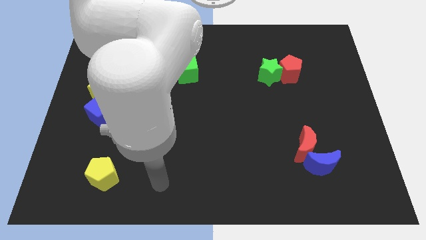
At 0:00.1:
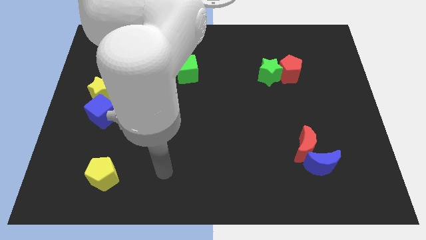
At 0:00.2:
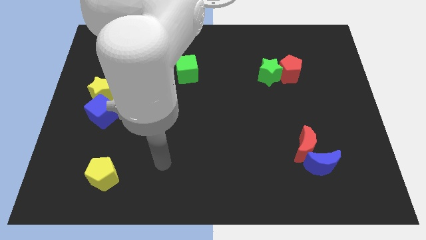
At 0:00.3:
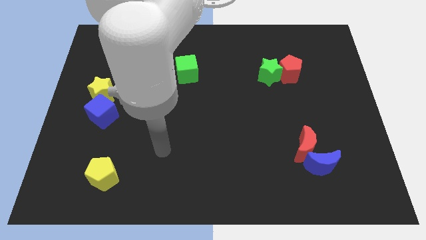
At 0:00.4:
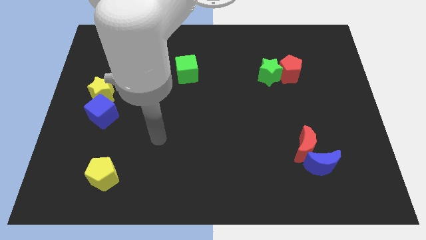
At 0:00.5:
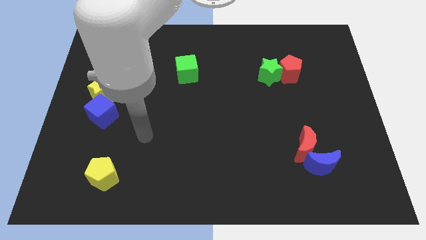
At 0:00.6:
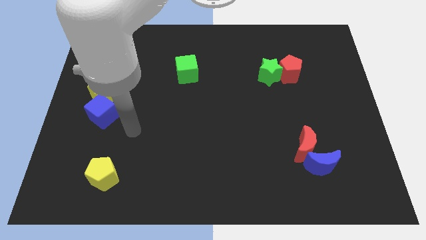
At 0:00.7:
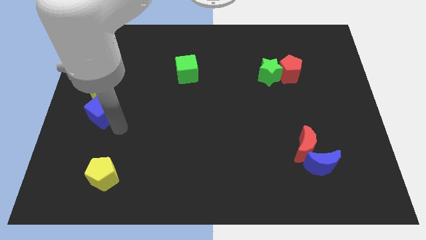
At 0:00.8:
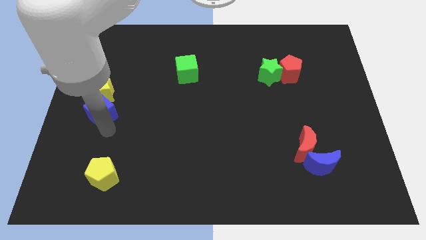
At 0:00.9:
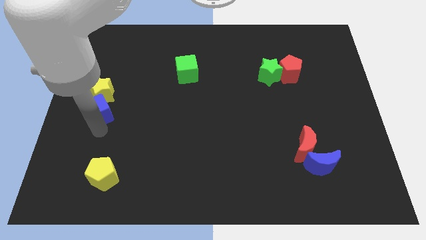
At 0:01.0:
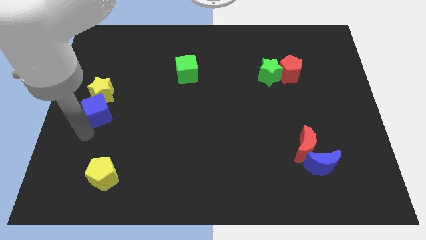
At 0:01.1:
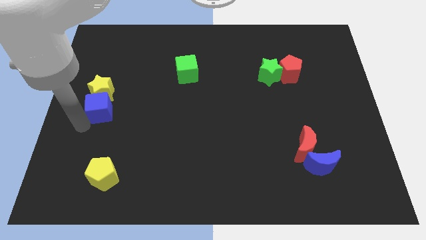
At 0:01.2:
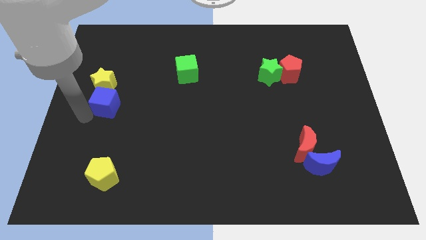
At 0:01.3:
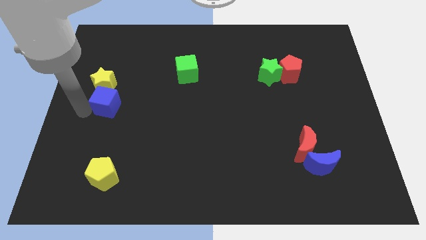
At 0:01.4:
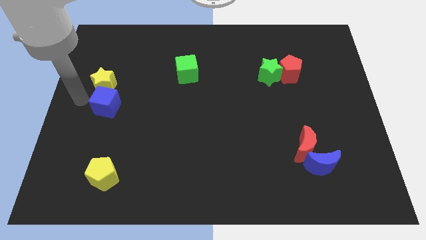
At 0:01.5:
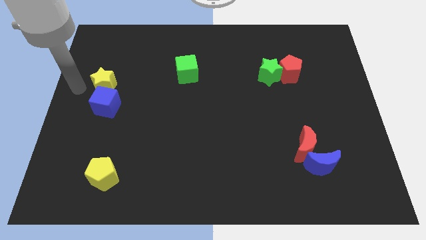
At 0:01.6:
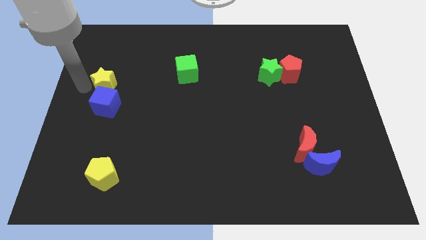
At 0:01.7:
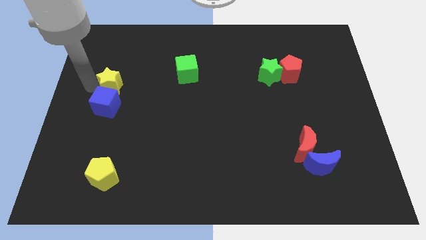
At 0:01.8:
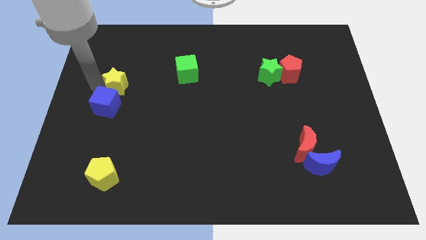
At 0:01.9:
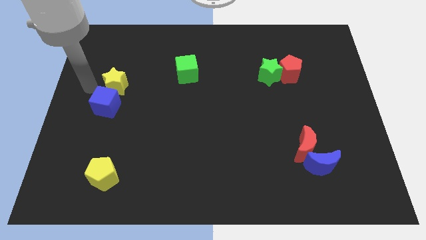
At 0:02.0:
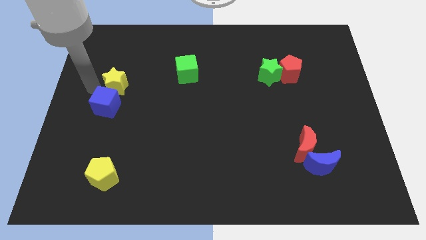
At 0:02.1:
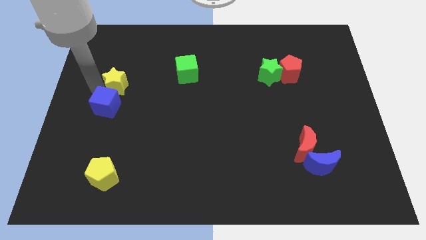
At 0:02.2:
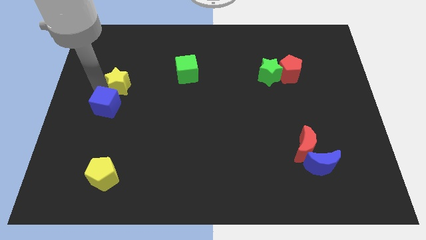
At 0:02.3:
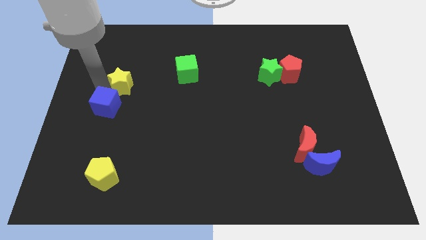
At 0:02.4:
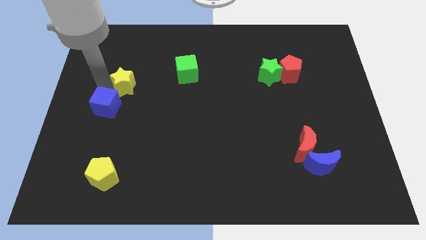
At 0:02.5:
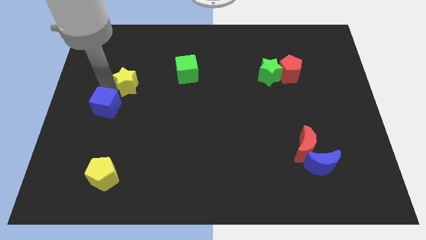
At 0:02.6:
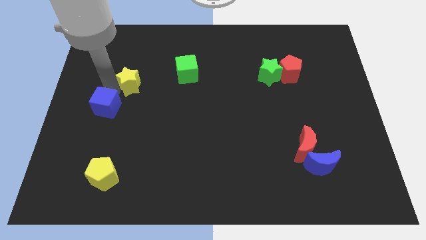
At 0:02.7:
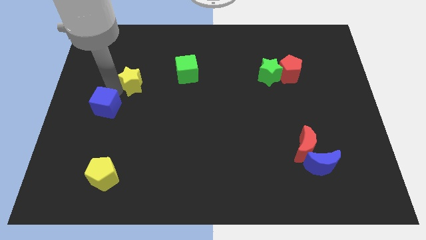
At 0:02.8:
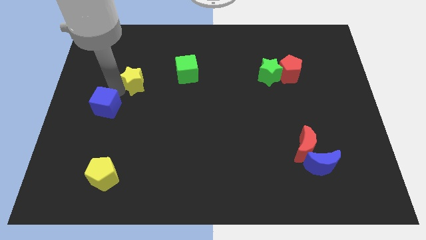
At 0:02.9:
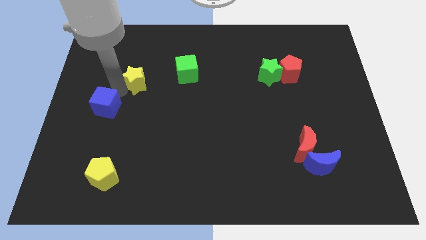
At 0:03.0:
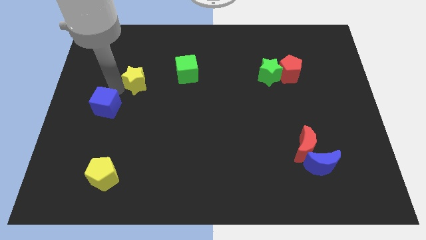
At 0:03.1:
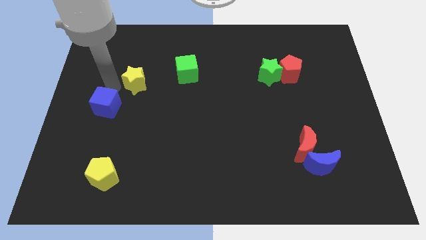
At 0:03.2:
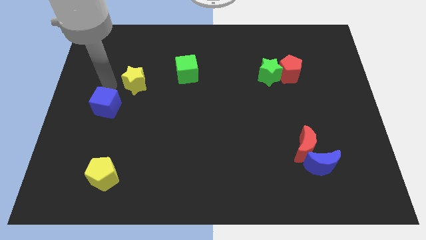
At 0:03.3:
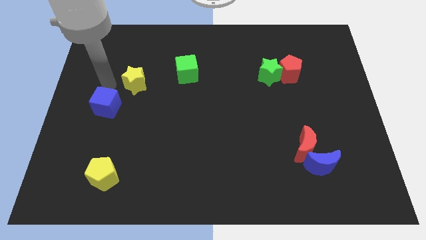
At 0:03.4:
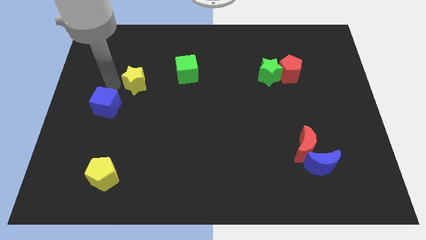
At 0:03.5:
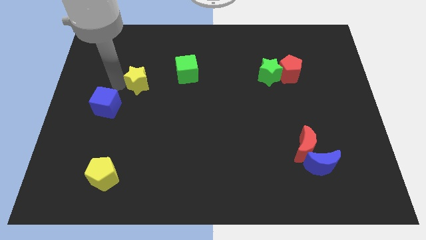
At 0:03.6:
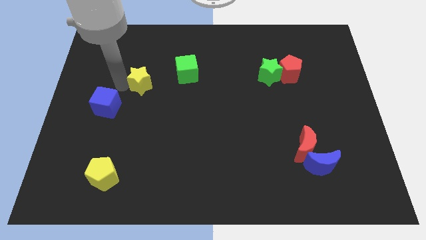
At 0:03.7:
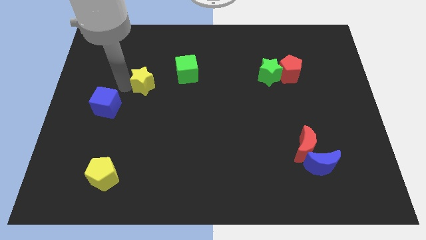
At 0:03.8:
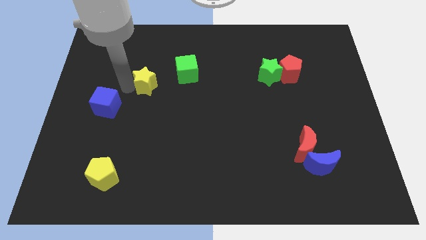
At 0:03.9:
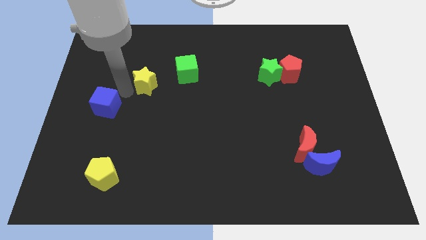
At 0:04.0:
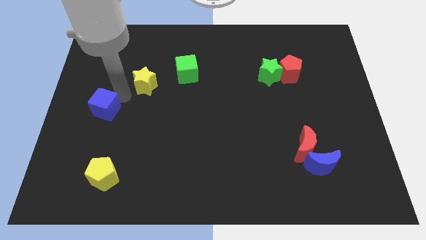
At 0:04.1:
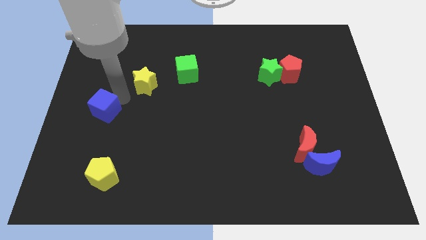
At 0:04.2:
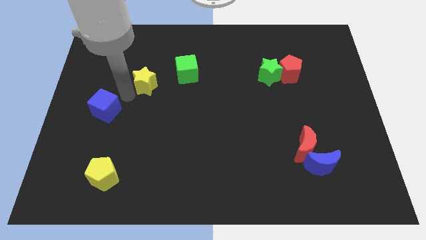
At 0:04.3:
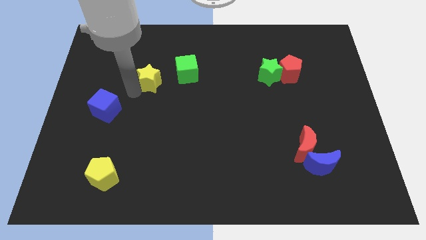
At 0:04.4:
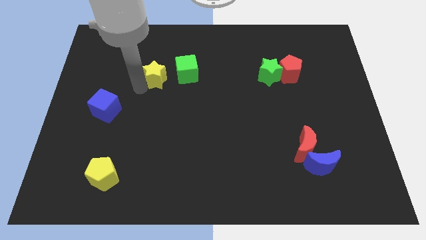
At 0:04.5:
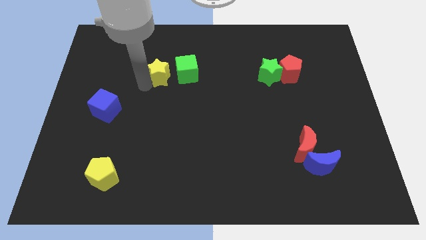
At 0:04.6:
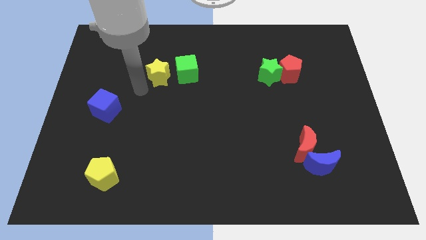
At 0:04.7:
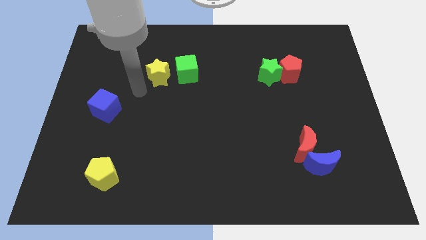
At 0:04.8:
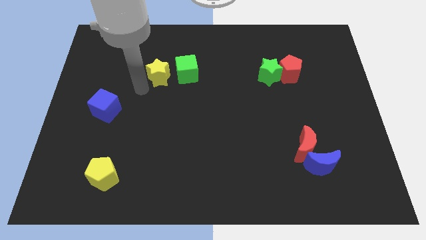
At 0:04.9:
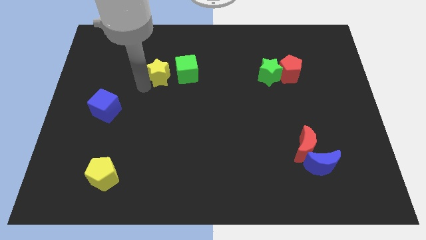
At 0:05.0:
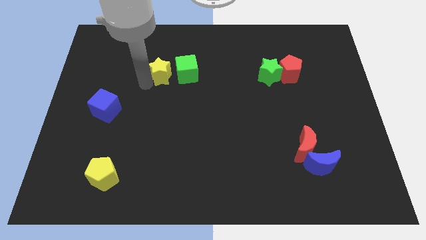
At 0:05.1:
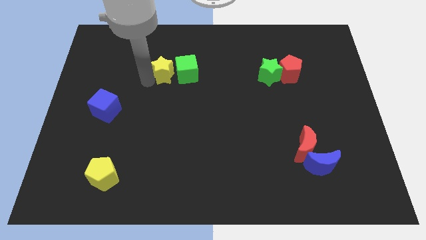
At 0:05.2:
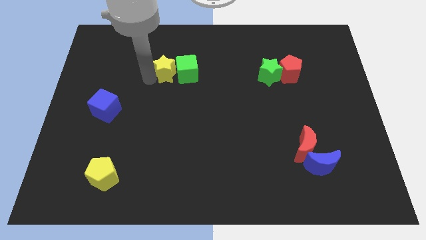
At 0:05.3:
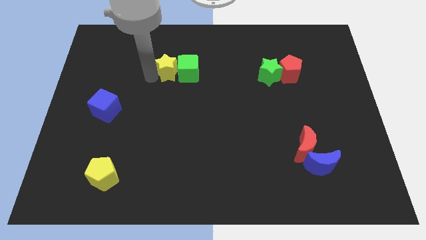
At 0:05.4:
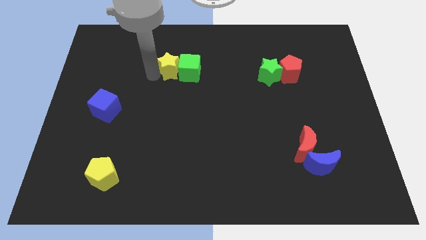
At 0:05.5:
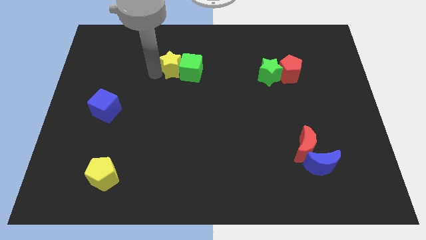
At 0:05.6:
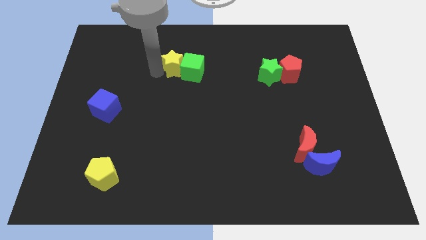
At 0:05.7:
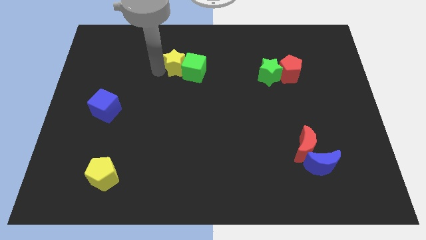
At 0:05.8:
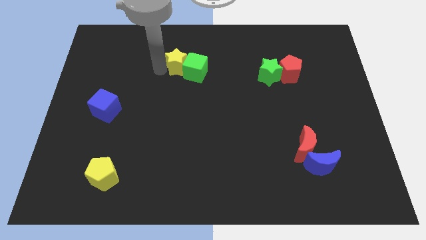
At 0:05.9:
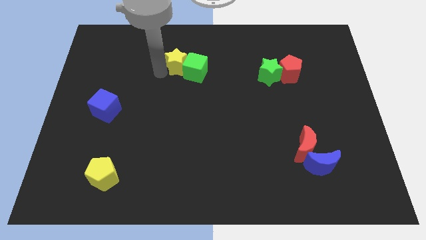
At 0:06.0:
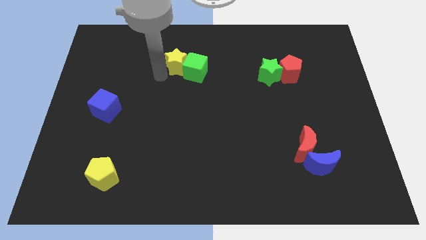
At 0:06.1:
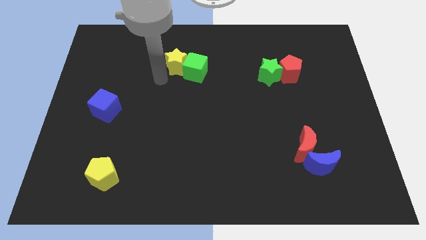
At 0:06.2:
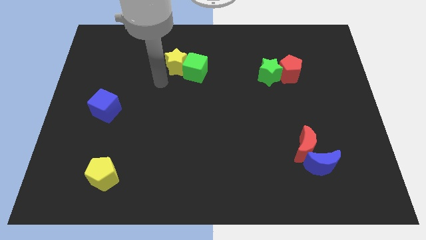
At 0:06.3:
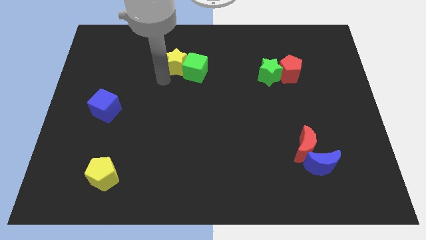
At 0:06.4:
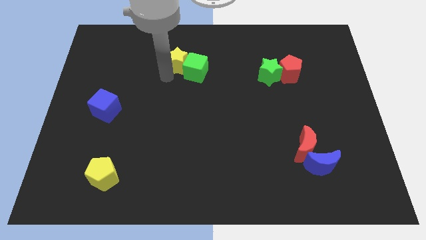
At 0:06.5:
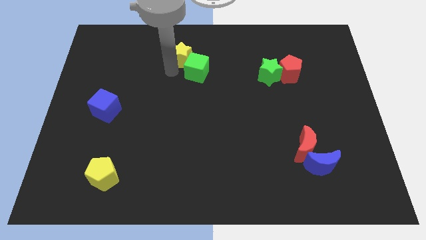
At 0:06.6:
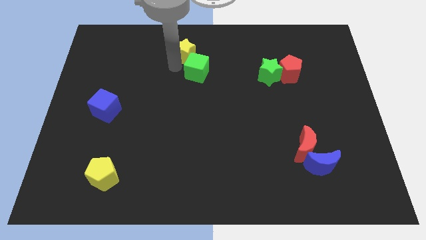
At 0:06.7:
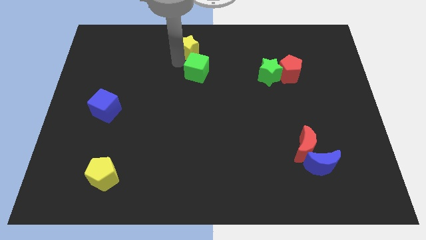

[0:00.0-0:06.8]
move the yellow star to the top
